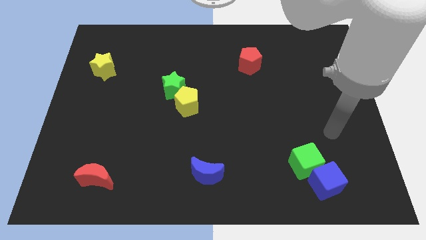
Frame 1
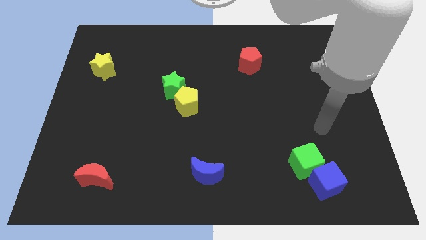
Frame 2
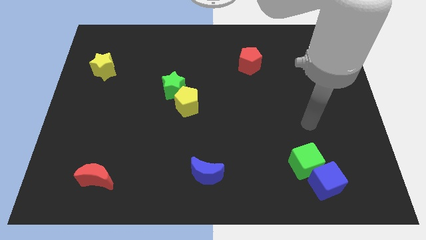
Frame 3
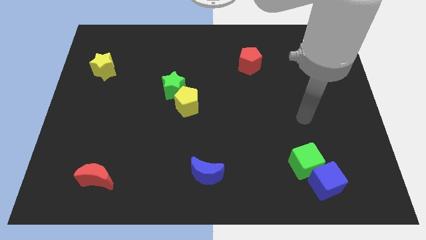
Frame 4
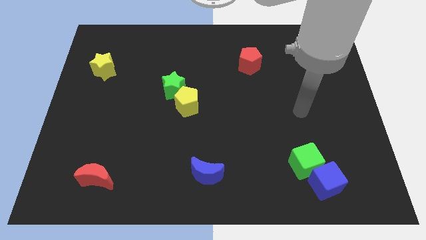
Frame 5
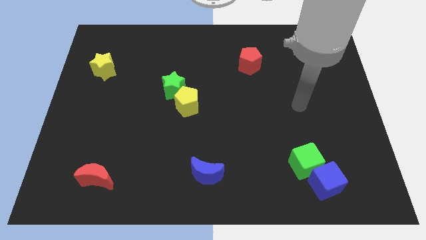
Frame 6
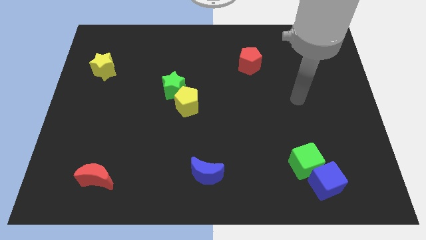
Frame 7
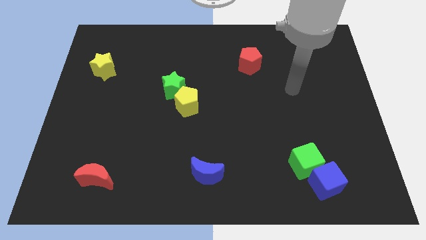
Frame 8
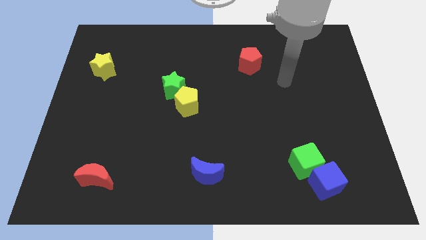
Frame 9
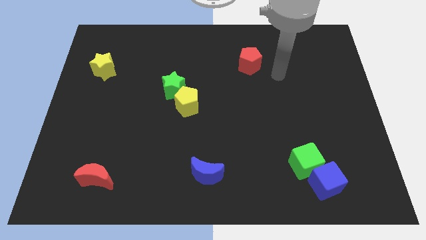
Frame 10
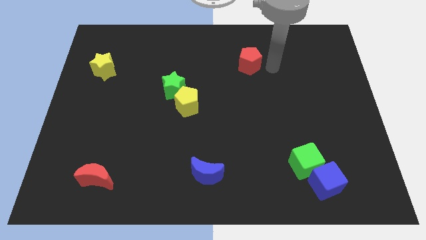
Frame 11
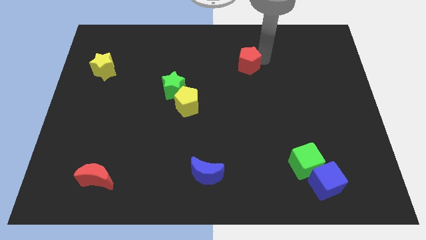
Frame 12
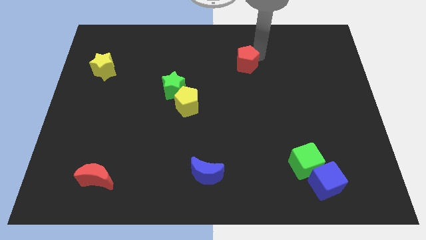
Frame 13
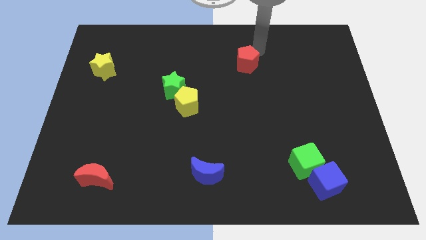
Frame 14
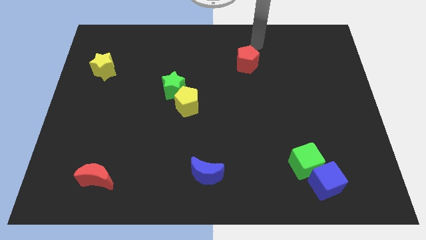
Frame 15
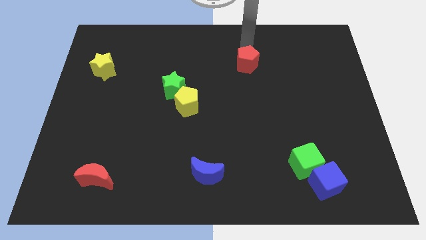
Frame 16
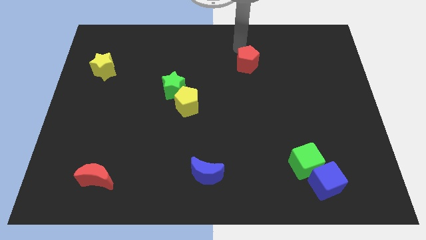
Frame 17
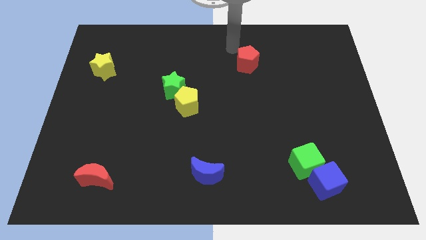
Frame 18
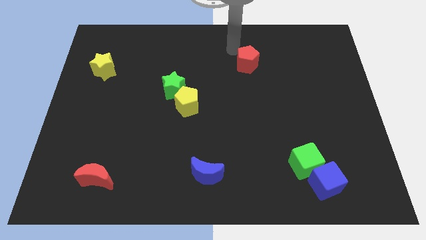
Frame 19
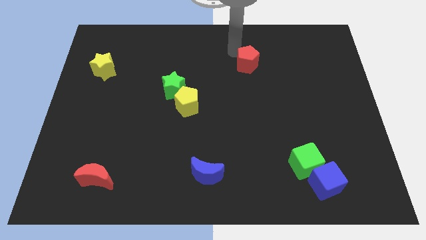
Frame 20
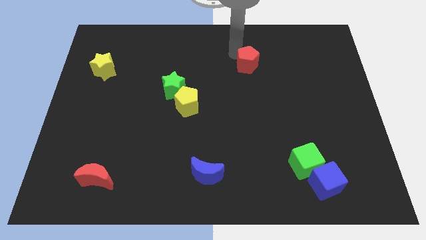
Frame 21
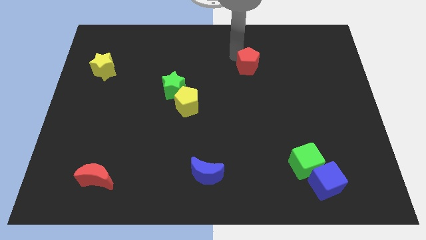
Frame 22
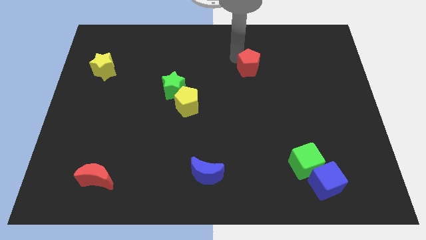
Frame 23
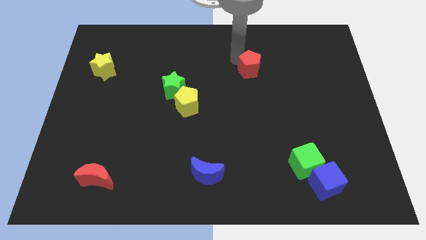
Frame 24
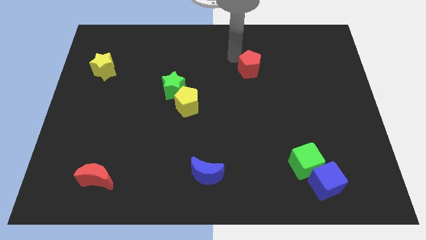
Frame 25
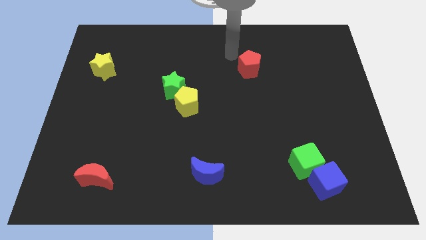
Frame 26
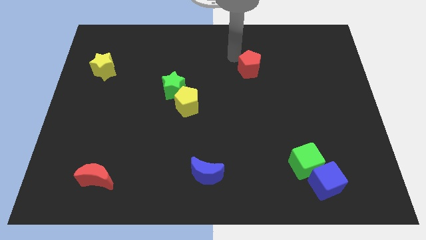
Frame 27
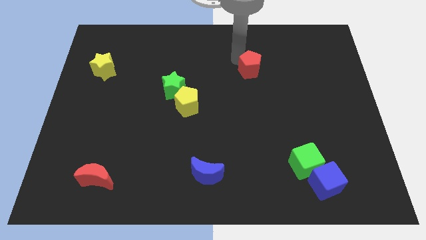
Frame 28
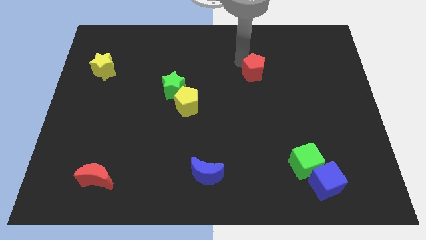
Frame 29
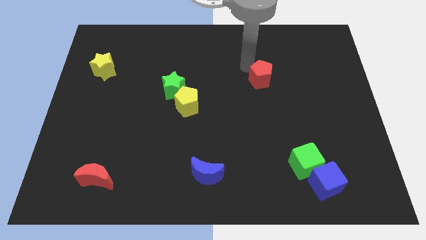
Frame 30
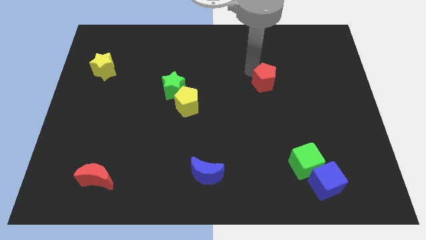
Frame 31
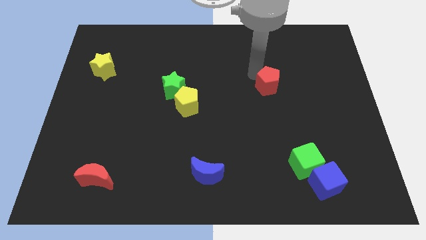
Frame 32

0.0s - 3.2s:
push the red pentagon slightly diagonally down and to the right

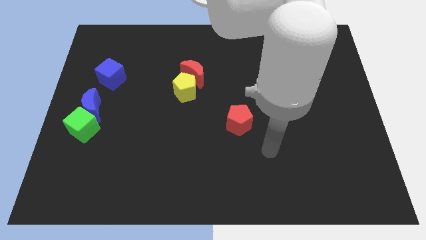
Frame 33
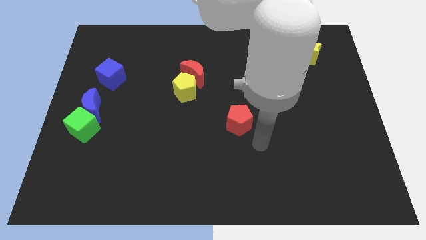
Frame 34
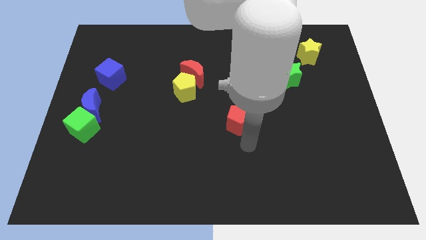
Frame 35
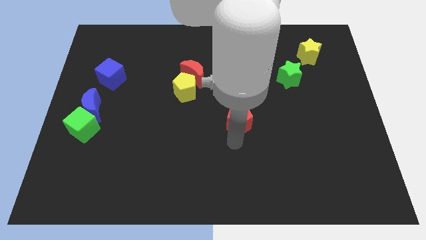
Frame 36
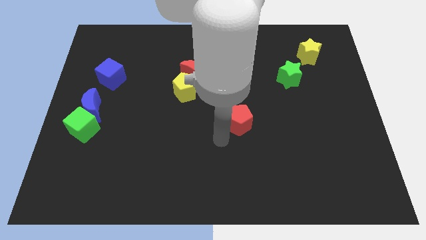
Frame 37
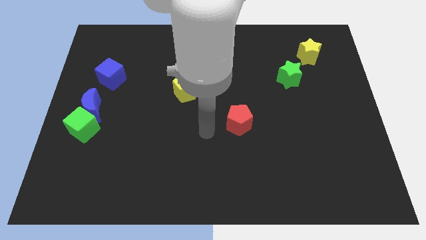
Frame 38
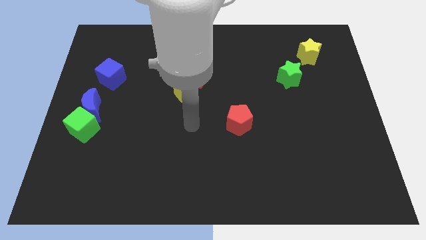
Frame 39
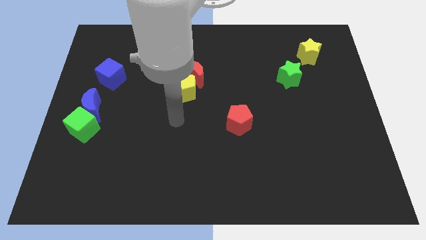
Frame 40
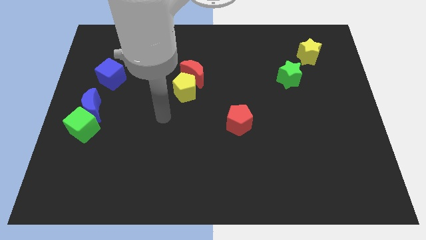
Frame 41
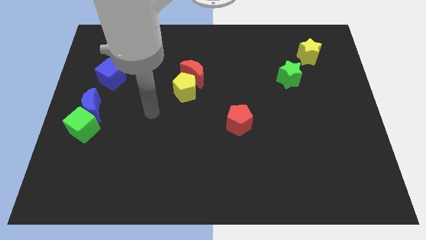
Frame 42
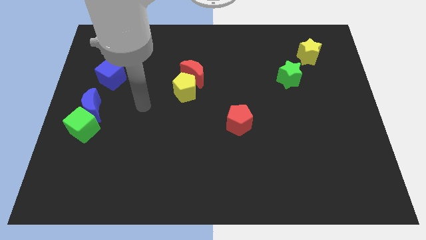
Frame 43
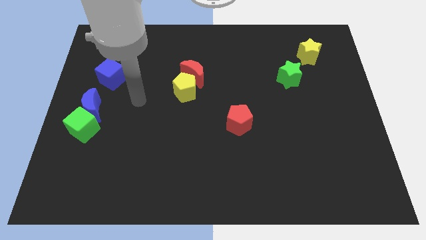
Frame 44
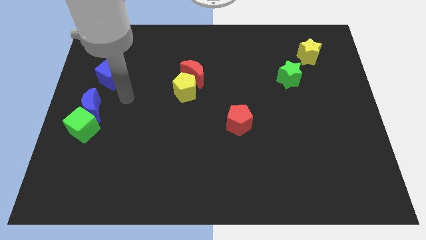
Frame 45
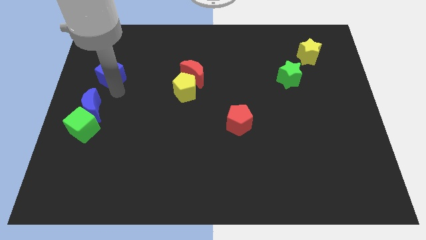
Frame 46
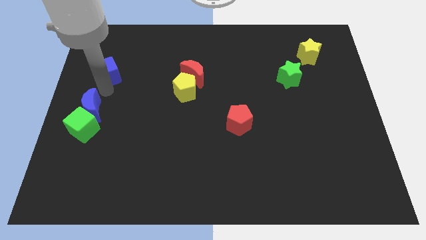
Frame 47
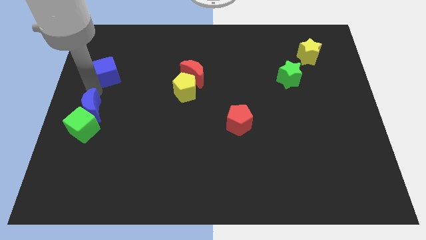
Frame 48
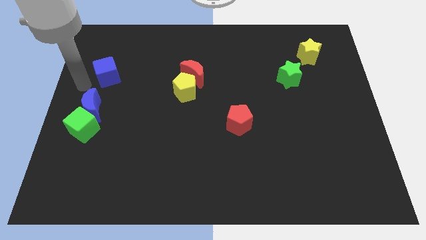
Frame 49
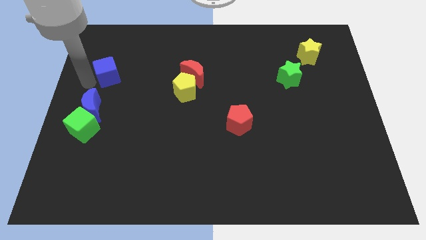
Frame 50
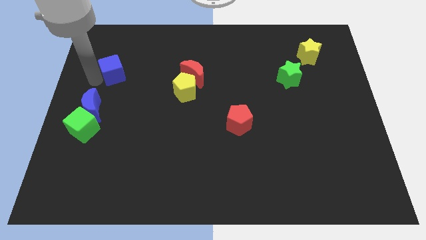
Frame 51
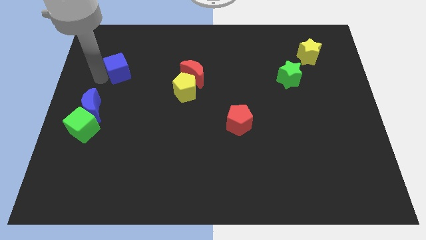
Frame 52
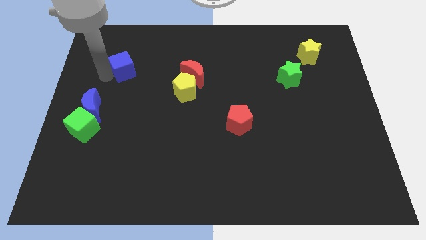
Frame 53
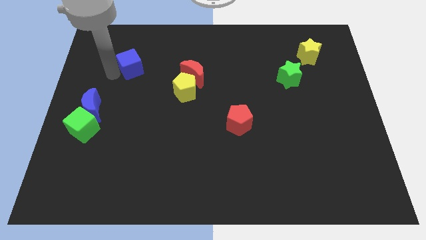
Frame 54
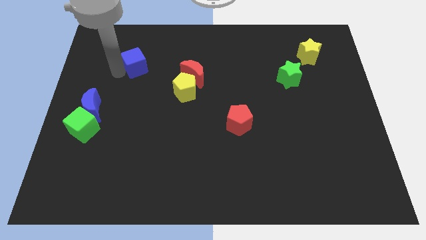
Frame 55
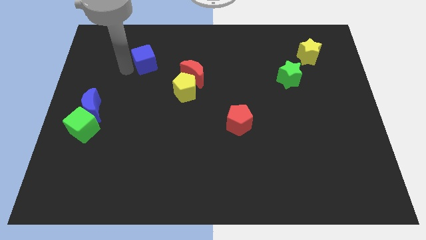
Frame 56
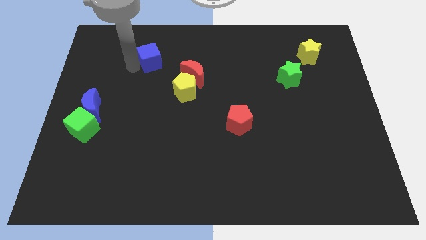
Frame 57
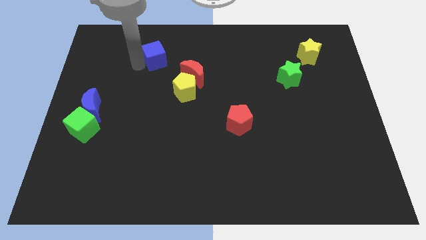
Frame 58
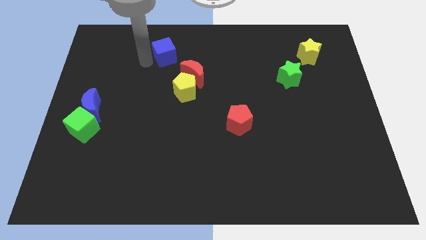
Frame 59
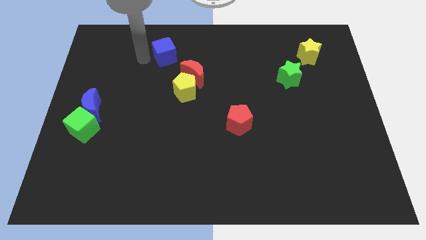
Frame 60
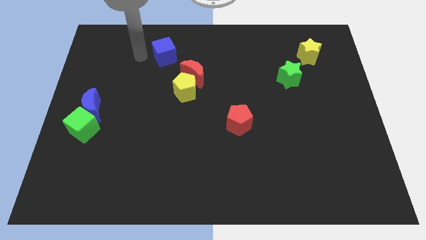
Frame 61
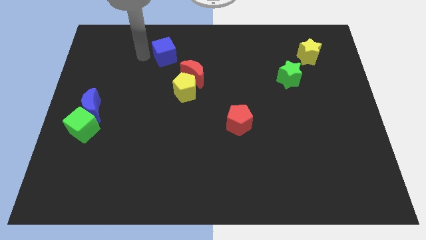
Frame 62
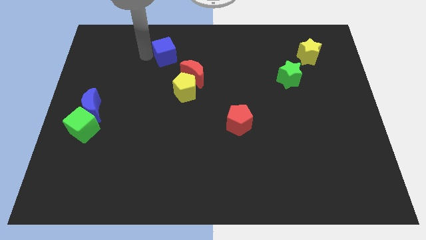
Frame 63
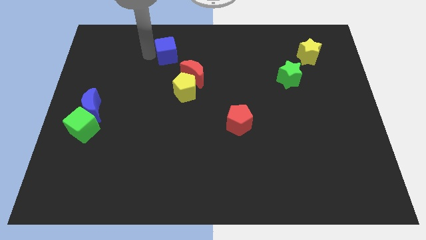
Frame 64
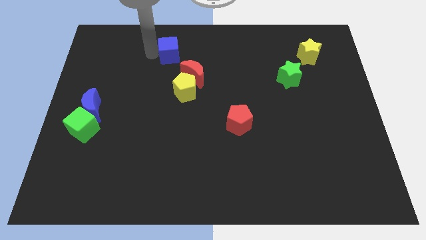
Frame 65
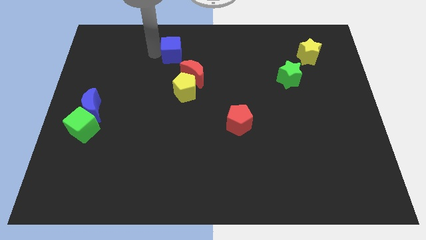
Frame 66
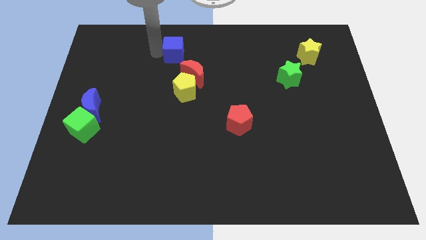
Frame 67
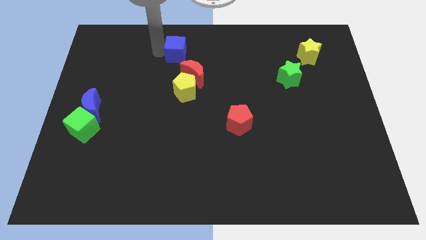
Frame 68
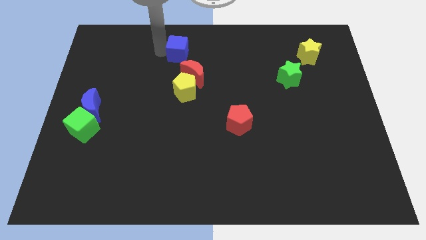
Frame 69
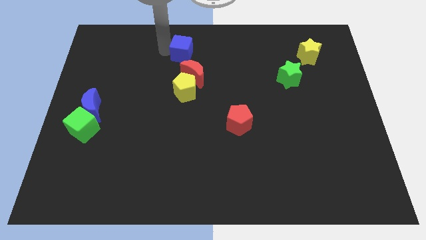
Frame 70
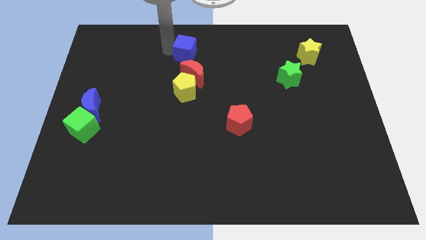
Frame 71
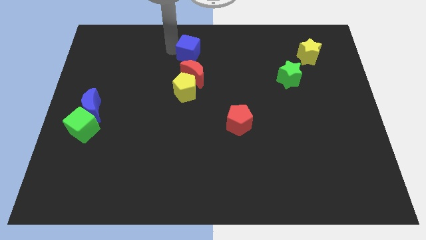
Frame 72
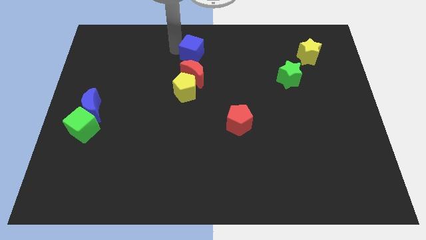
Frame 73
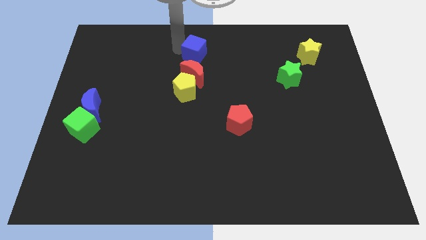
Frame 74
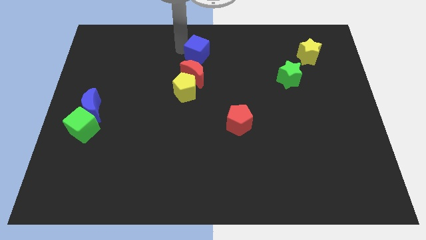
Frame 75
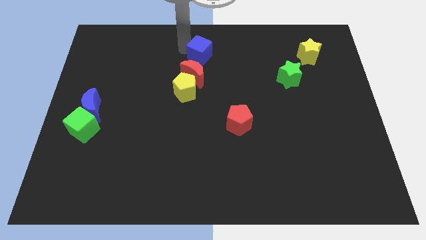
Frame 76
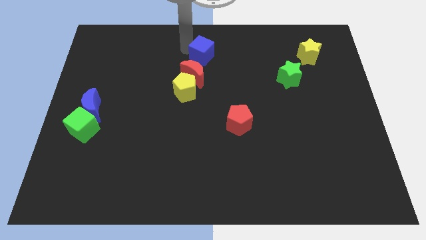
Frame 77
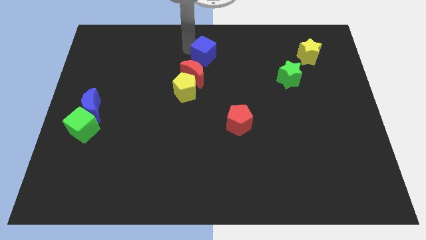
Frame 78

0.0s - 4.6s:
slide the blue cube right

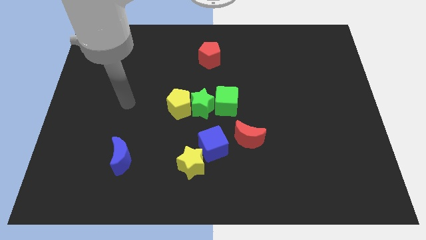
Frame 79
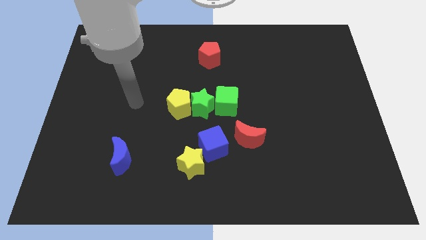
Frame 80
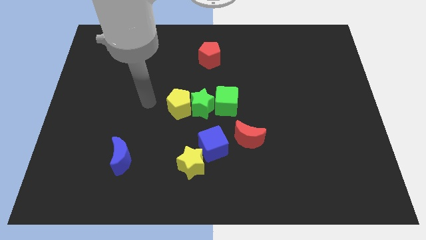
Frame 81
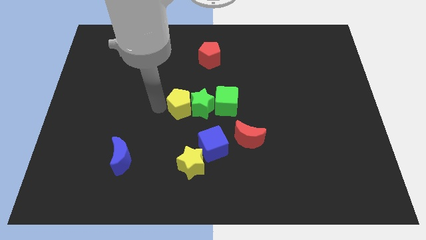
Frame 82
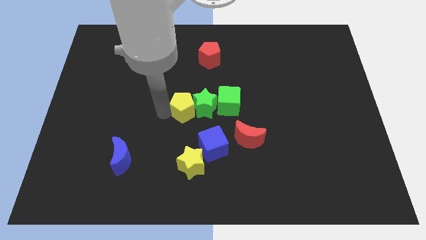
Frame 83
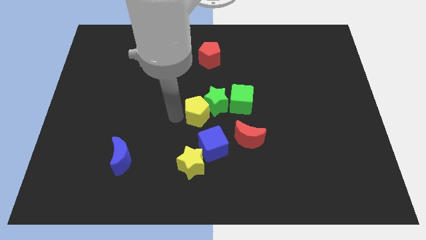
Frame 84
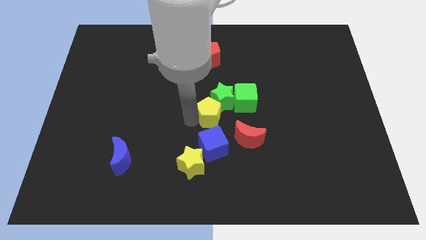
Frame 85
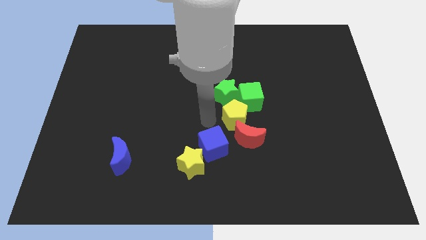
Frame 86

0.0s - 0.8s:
move the green star upwards and to the right diagonally a little bit

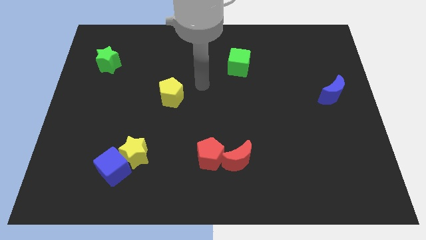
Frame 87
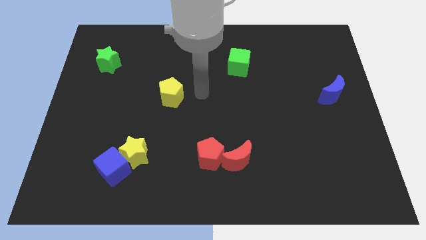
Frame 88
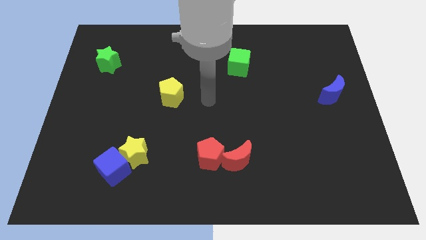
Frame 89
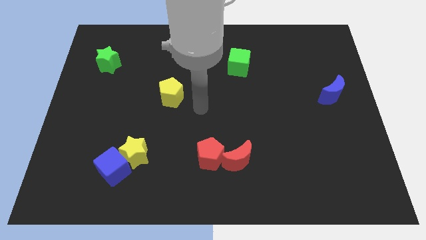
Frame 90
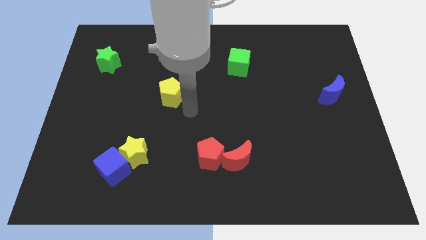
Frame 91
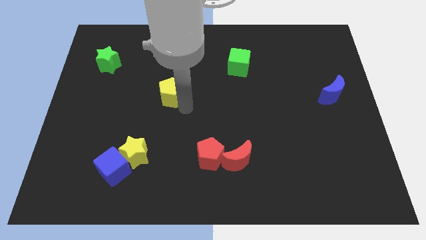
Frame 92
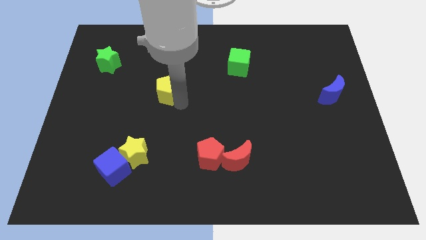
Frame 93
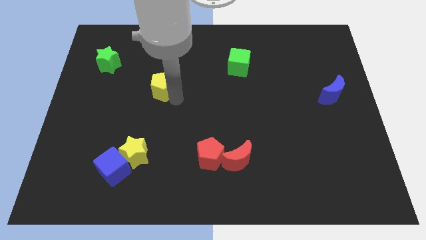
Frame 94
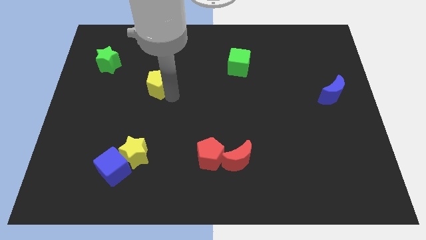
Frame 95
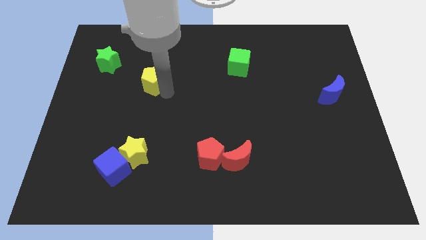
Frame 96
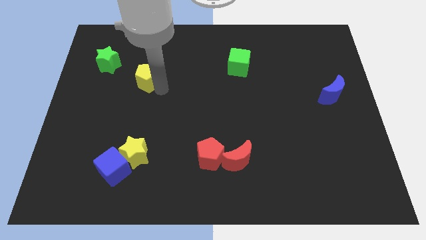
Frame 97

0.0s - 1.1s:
slightly push the yellow pentagon up and then to the left
